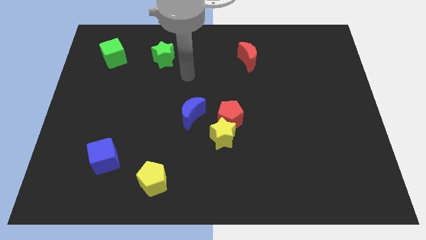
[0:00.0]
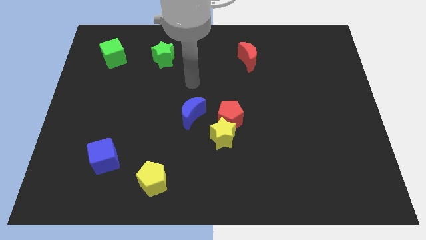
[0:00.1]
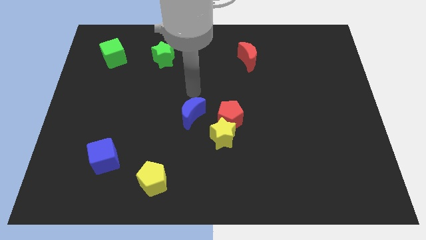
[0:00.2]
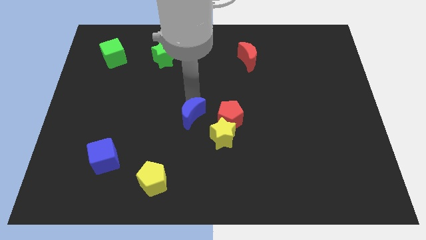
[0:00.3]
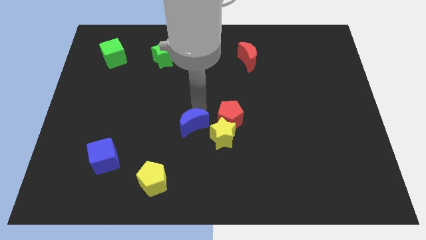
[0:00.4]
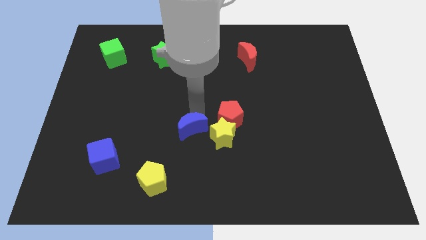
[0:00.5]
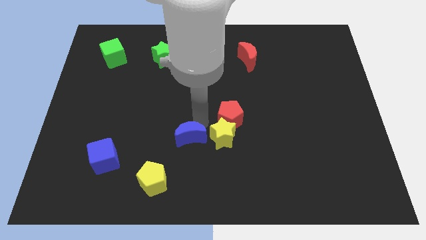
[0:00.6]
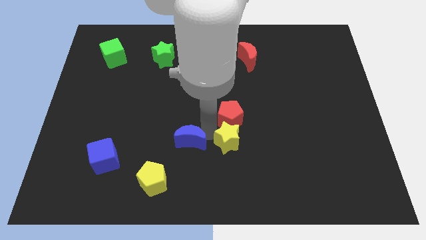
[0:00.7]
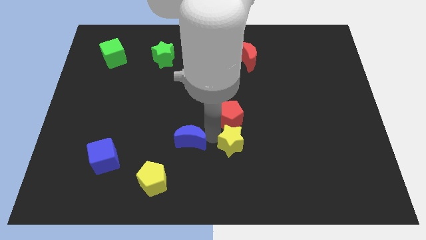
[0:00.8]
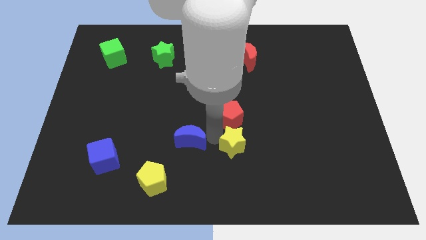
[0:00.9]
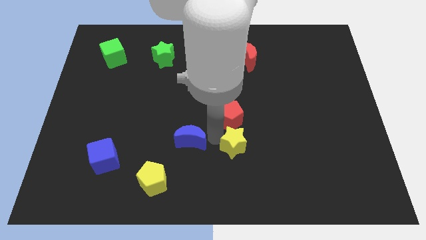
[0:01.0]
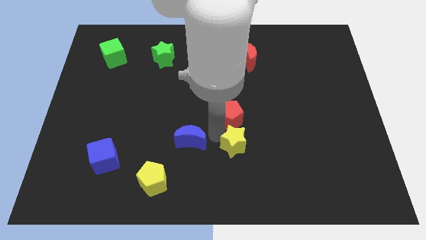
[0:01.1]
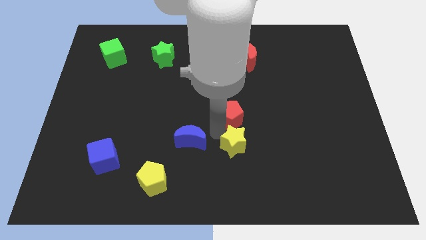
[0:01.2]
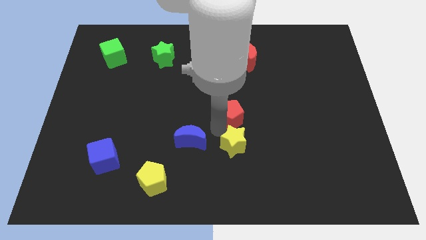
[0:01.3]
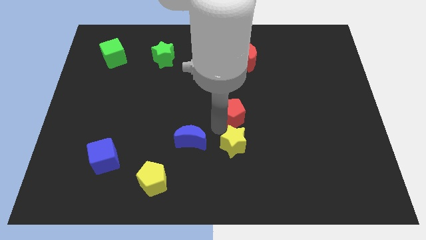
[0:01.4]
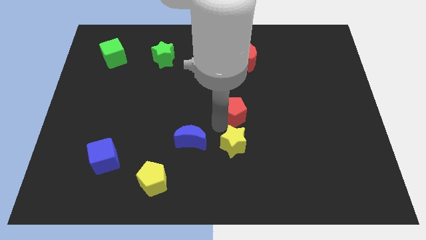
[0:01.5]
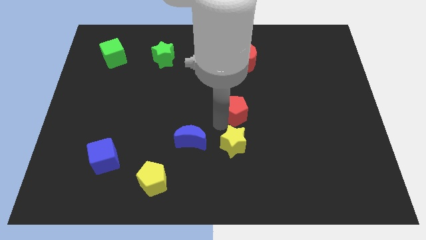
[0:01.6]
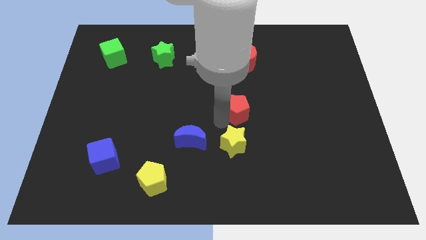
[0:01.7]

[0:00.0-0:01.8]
move the red pentagon away from the yellow star and blue moon

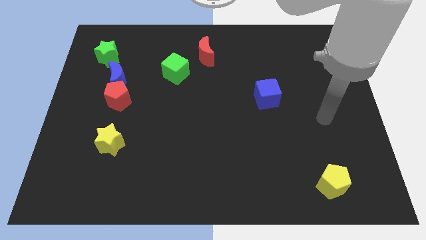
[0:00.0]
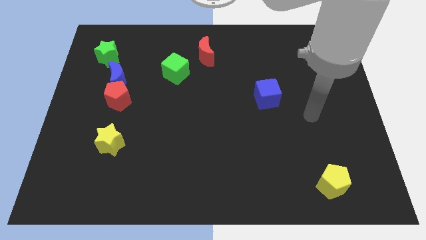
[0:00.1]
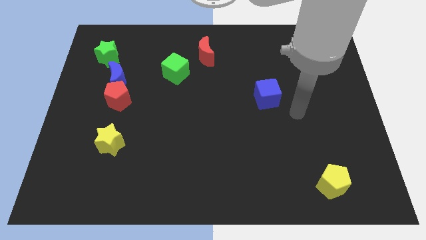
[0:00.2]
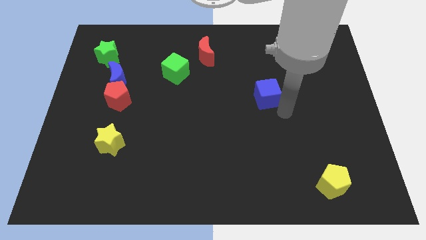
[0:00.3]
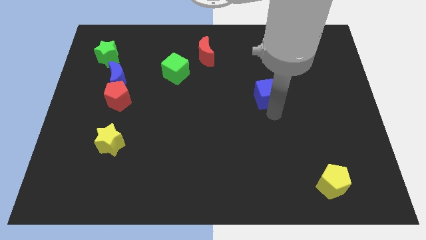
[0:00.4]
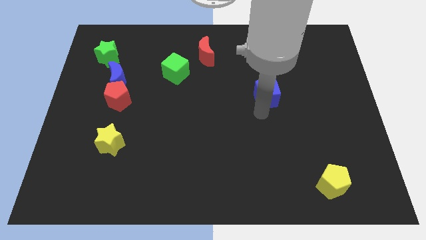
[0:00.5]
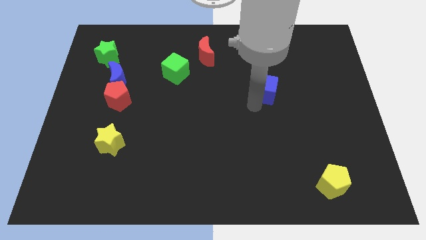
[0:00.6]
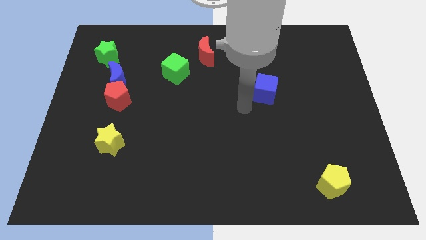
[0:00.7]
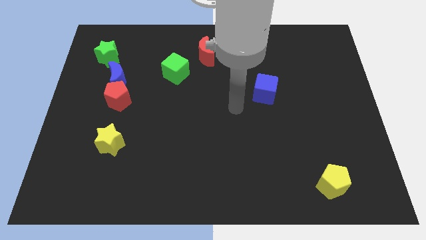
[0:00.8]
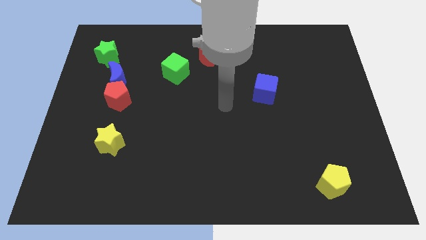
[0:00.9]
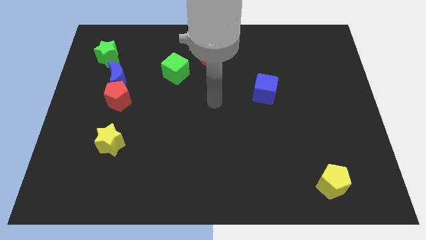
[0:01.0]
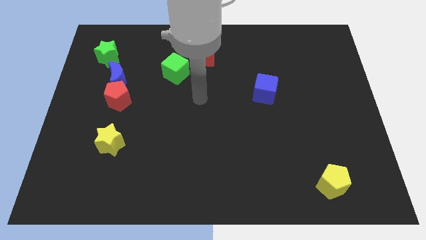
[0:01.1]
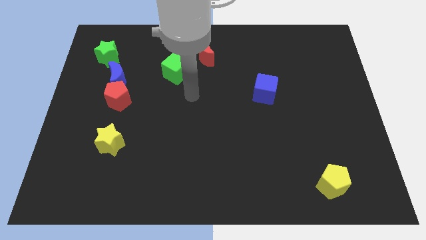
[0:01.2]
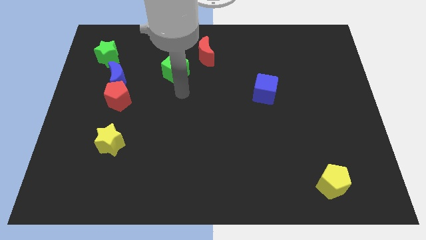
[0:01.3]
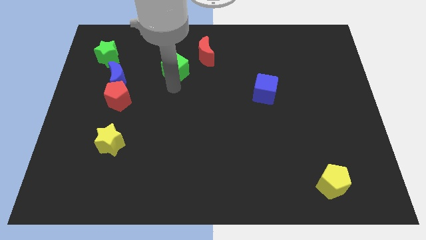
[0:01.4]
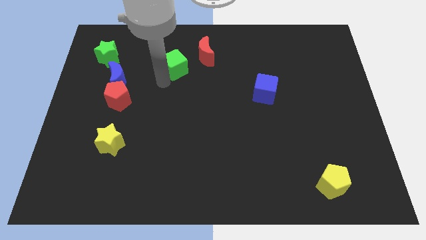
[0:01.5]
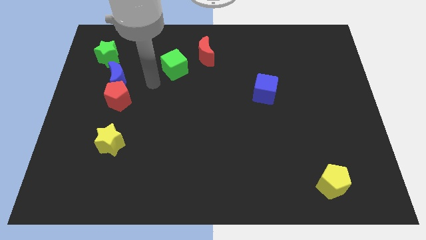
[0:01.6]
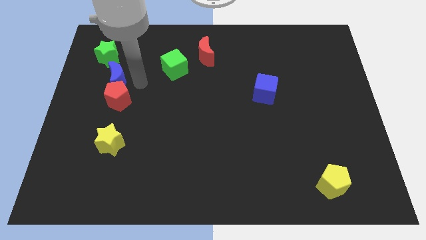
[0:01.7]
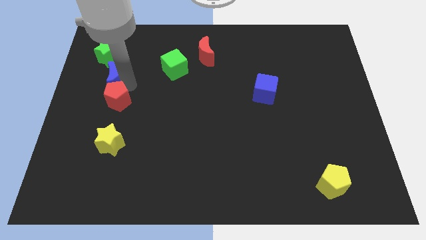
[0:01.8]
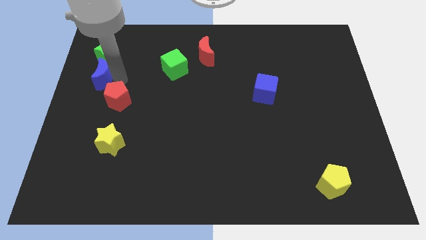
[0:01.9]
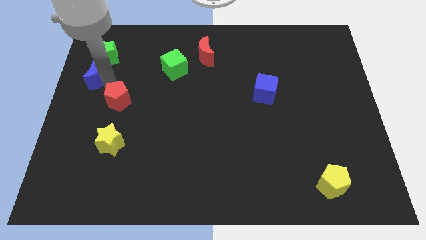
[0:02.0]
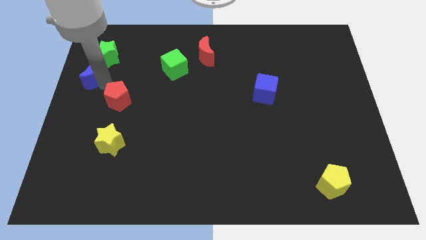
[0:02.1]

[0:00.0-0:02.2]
pull the red pentagon apart from the blue moon

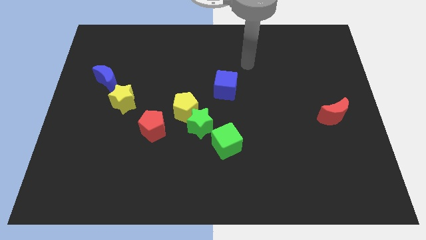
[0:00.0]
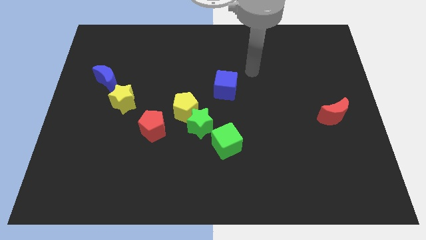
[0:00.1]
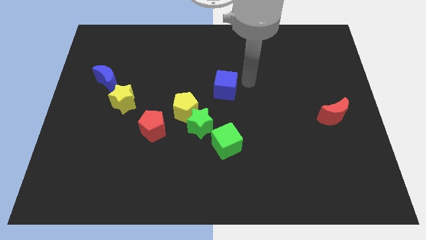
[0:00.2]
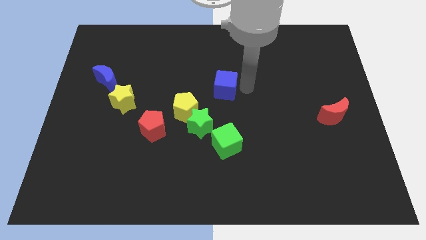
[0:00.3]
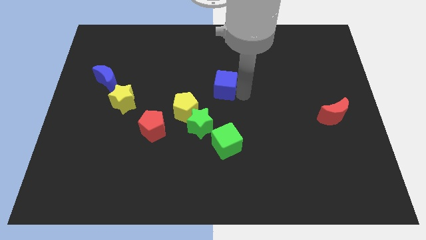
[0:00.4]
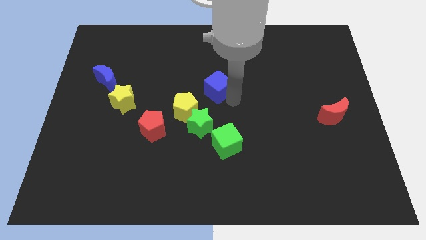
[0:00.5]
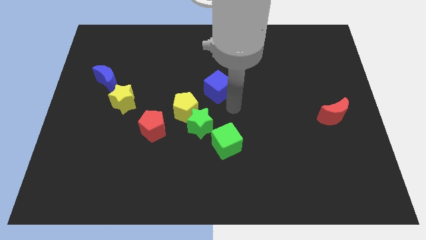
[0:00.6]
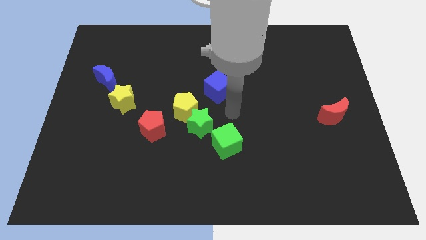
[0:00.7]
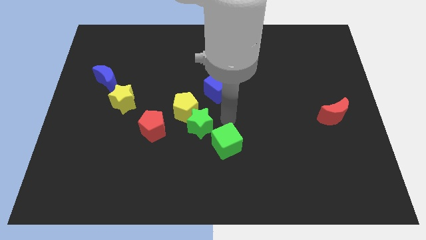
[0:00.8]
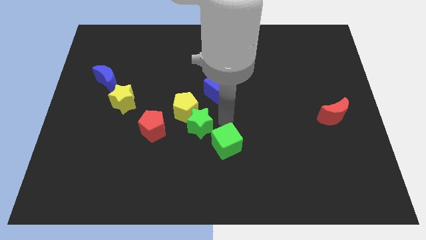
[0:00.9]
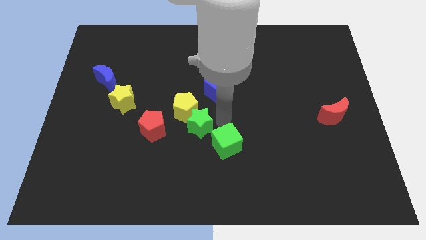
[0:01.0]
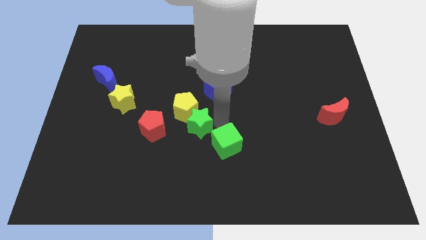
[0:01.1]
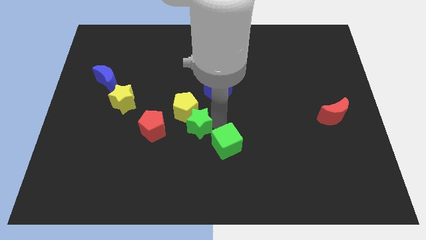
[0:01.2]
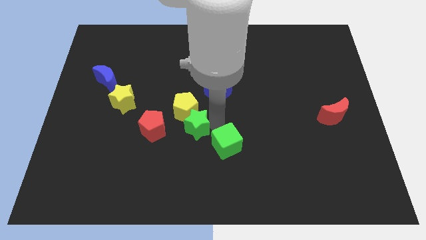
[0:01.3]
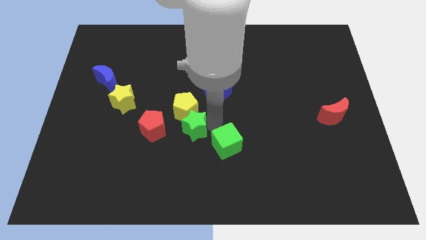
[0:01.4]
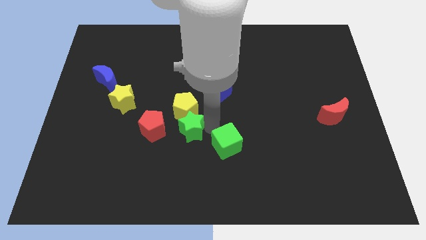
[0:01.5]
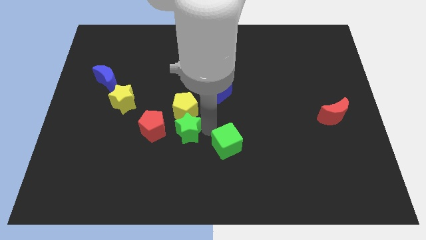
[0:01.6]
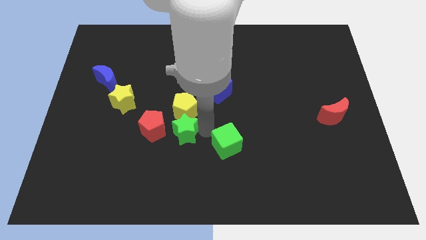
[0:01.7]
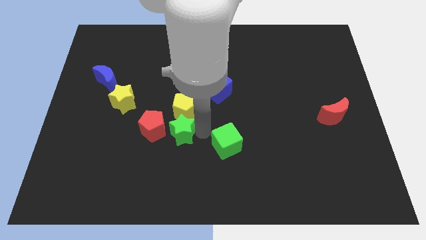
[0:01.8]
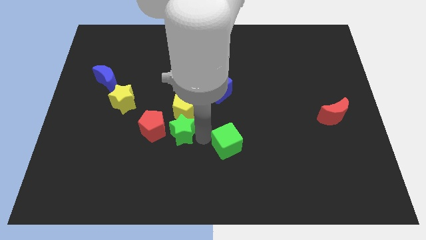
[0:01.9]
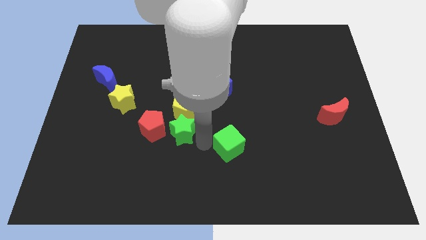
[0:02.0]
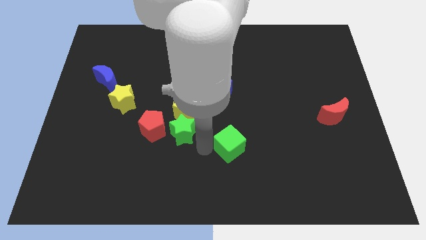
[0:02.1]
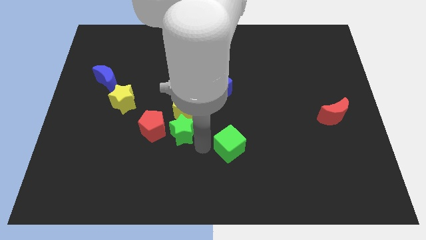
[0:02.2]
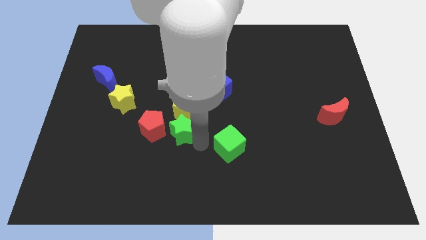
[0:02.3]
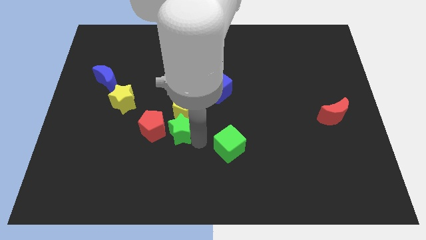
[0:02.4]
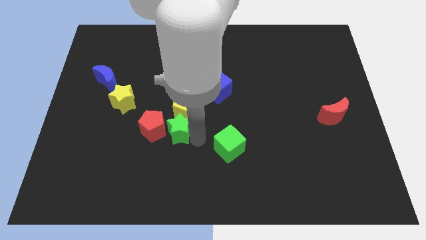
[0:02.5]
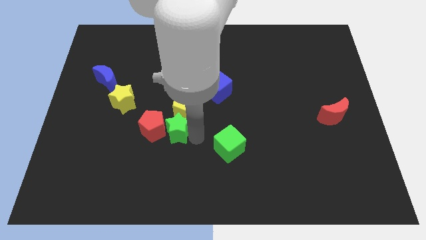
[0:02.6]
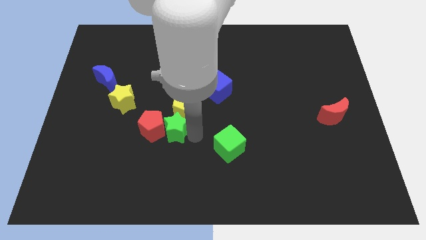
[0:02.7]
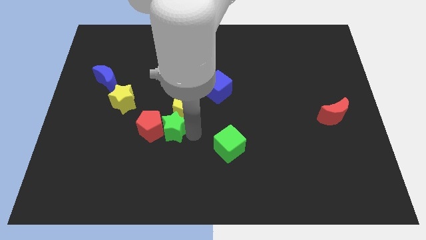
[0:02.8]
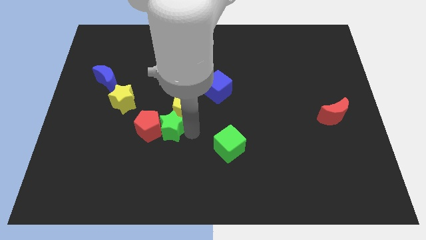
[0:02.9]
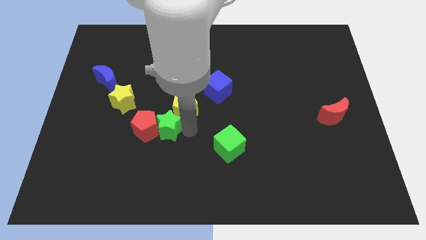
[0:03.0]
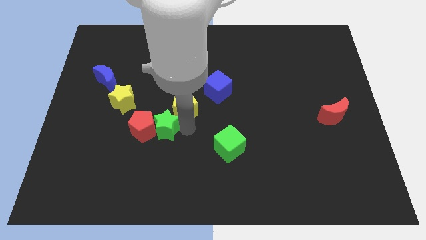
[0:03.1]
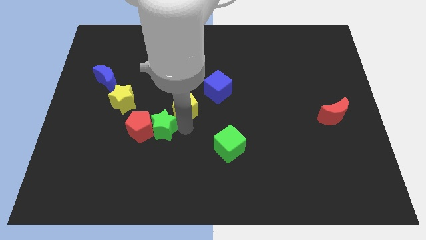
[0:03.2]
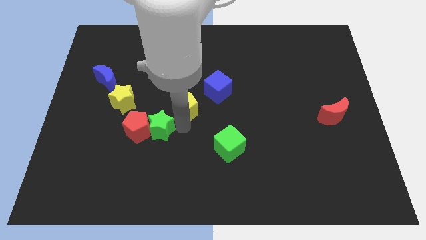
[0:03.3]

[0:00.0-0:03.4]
separate the green star from the yellow pentagon and green cube

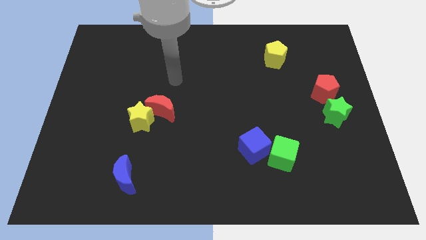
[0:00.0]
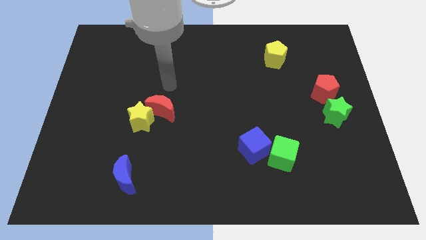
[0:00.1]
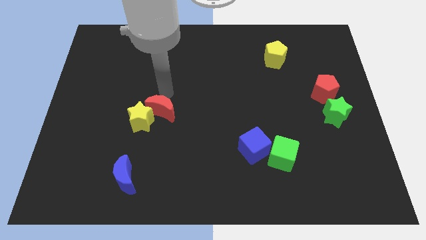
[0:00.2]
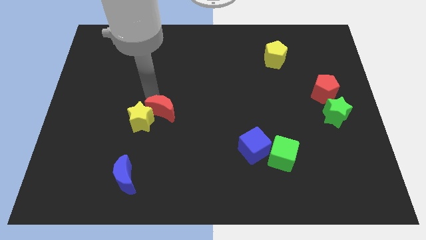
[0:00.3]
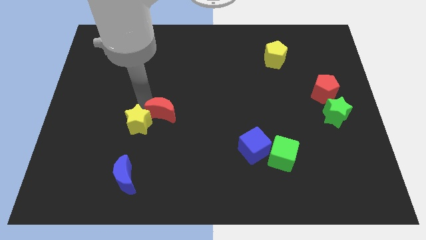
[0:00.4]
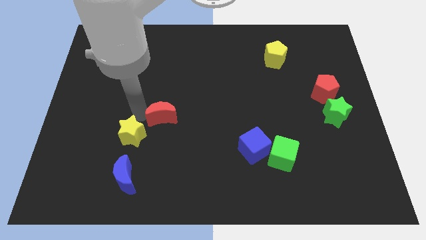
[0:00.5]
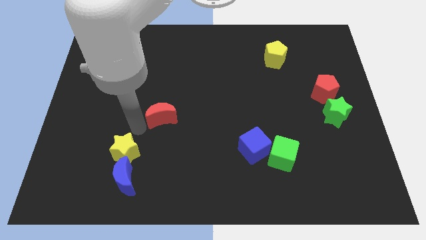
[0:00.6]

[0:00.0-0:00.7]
separate the red moon from the yellow star

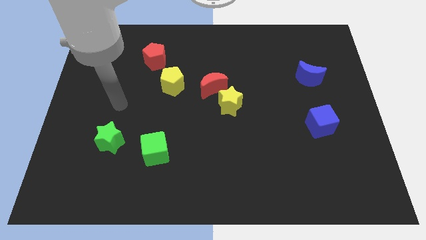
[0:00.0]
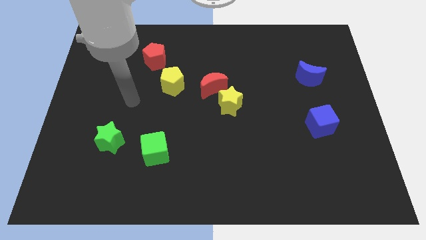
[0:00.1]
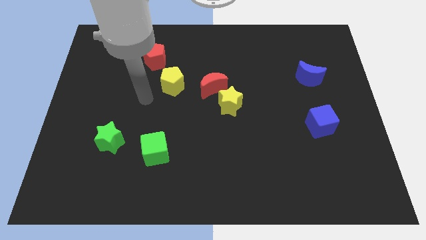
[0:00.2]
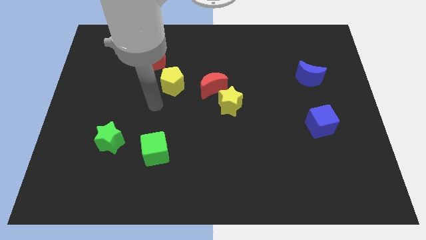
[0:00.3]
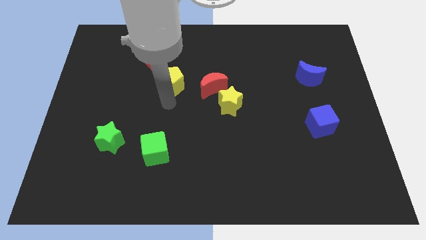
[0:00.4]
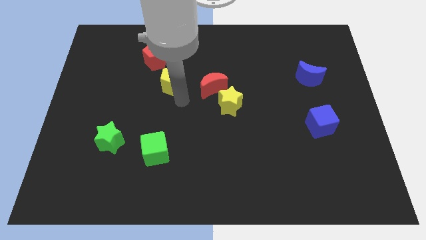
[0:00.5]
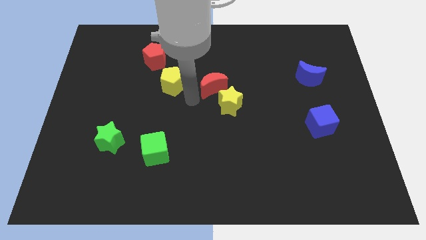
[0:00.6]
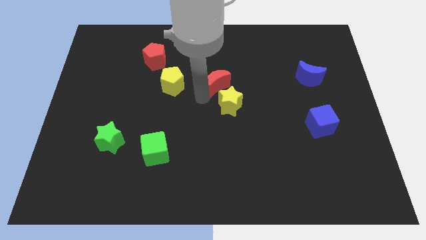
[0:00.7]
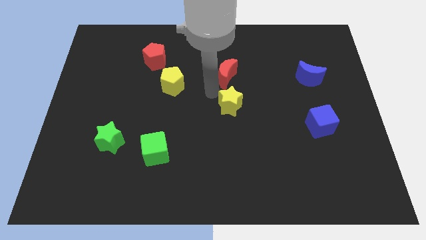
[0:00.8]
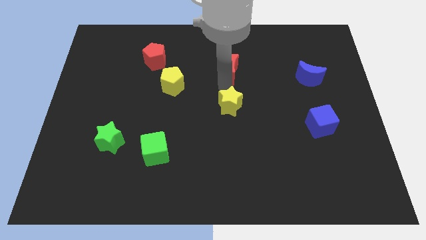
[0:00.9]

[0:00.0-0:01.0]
move the yellow star away from the red moon

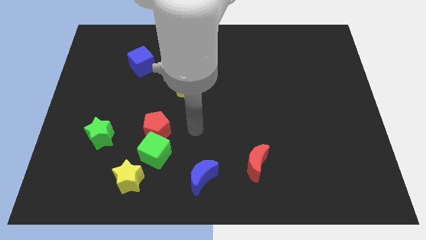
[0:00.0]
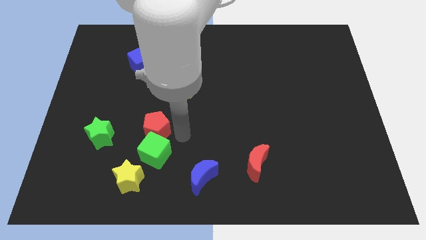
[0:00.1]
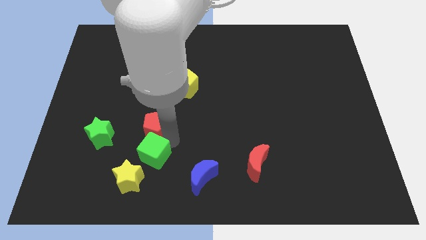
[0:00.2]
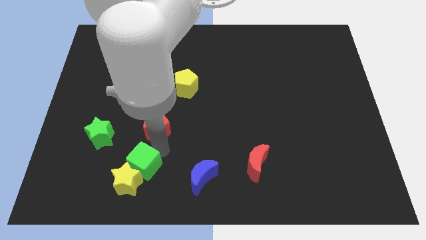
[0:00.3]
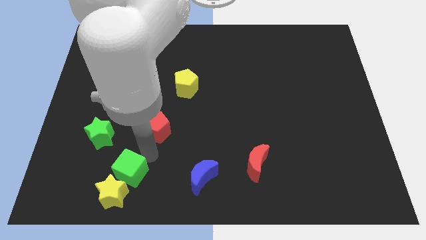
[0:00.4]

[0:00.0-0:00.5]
separate the red pentagon from the green cube
